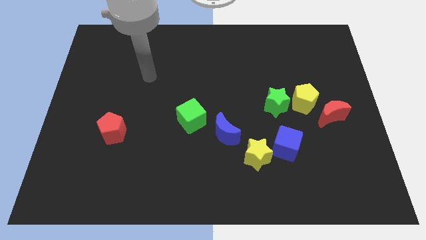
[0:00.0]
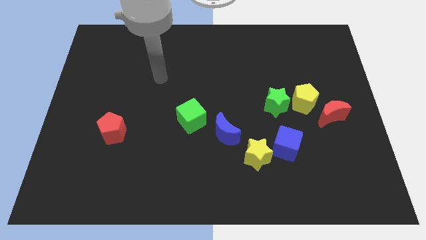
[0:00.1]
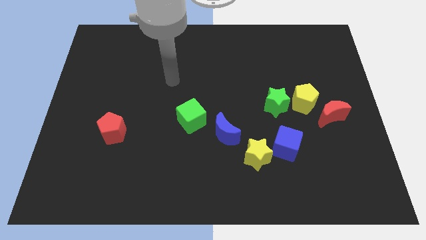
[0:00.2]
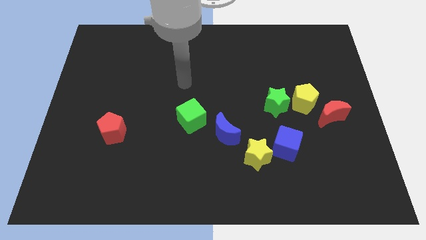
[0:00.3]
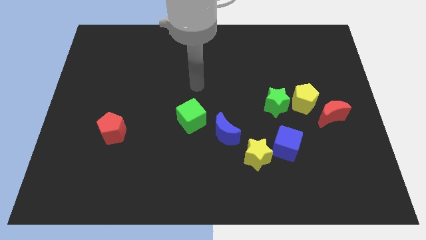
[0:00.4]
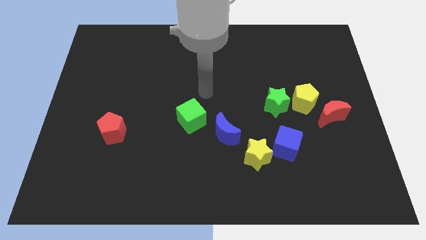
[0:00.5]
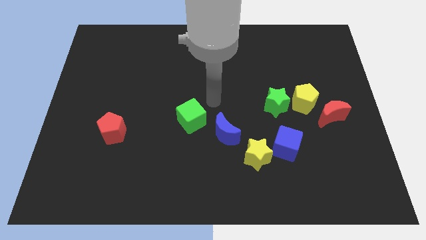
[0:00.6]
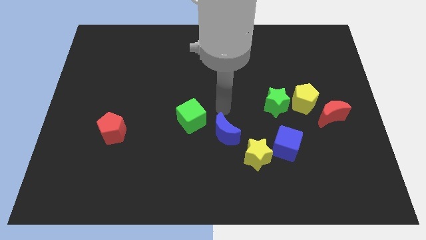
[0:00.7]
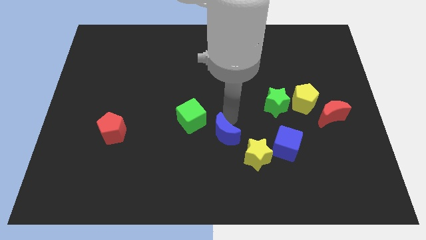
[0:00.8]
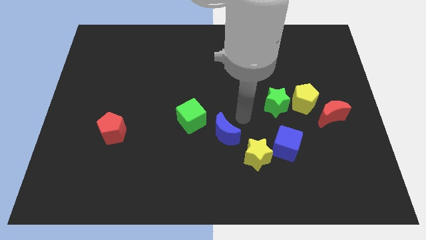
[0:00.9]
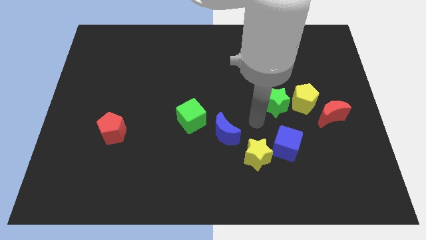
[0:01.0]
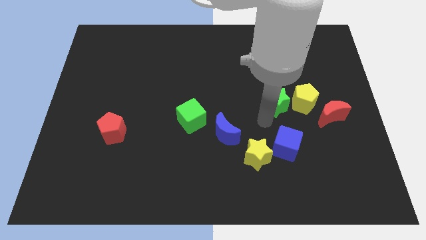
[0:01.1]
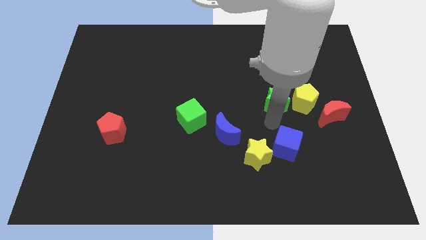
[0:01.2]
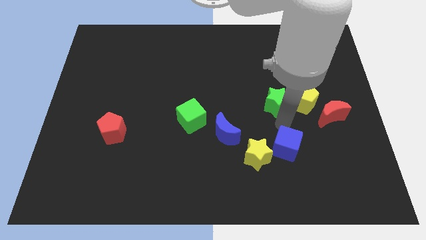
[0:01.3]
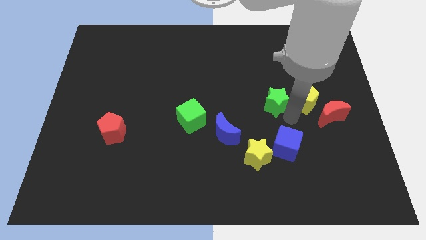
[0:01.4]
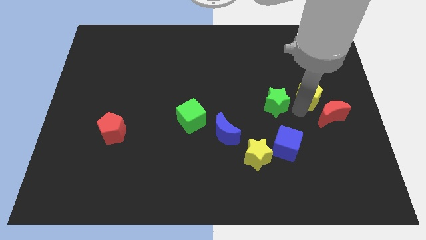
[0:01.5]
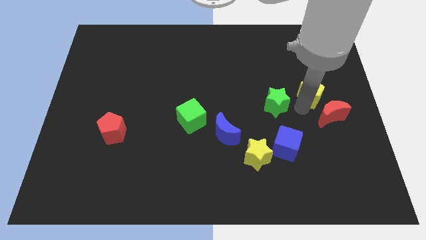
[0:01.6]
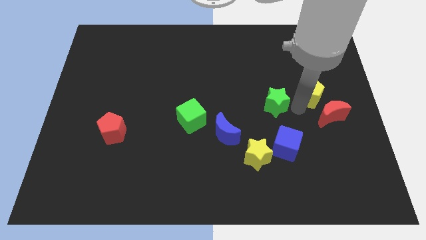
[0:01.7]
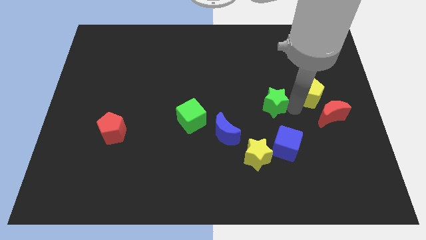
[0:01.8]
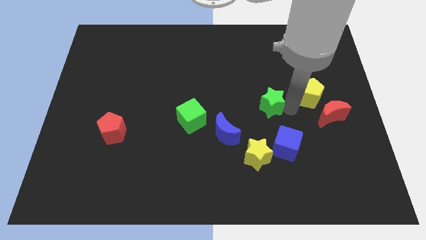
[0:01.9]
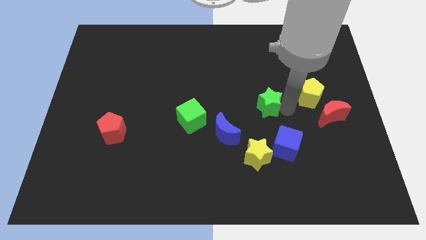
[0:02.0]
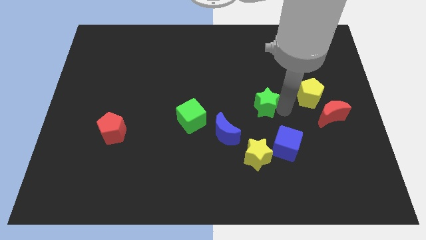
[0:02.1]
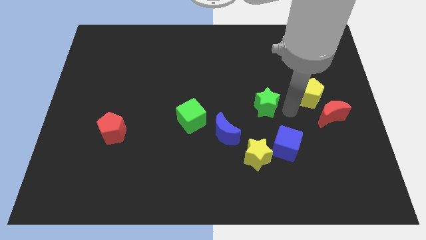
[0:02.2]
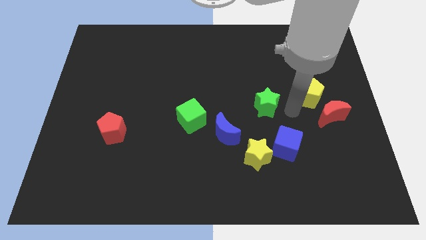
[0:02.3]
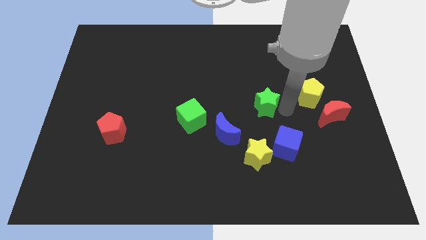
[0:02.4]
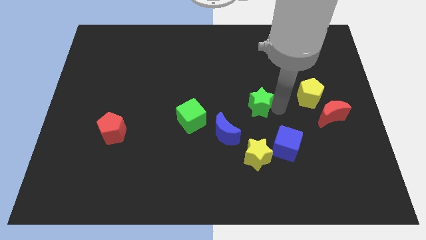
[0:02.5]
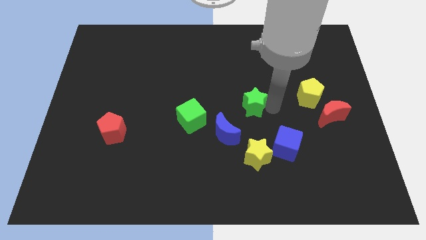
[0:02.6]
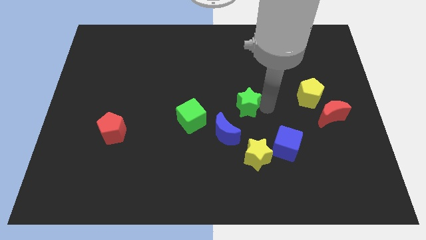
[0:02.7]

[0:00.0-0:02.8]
push the green star a little bit to the left

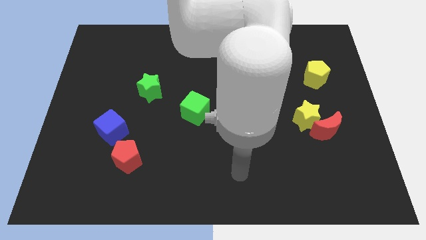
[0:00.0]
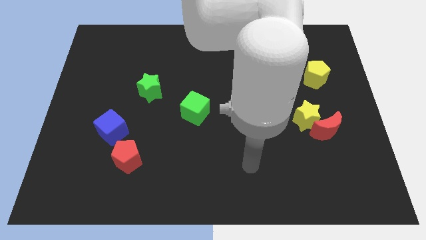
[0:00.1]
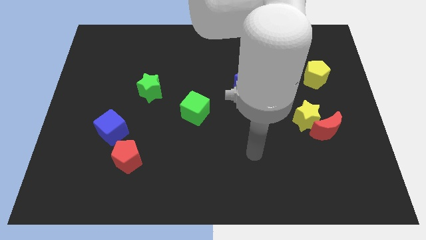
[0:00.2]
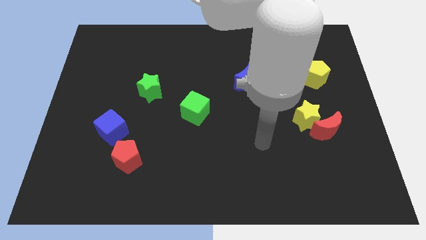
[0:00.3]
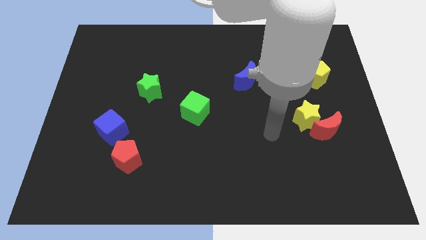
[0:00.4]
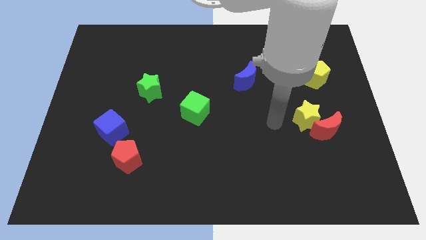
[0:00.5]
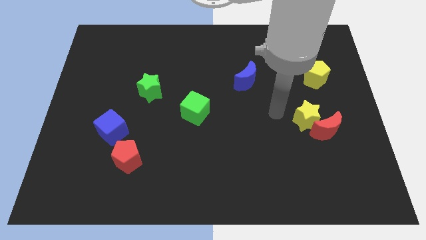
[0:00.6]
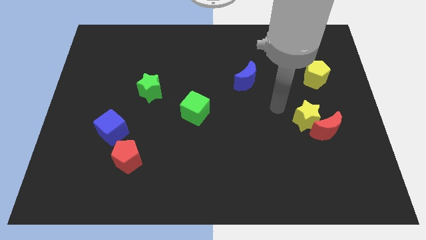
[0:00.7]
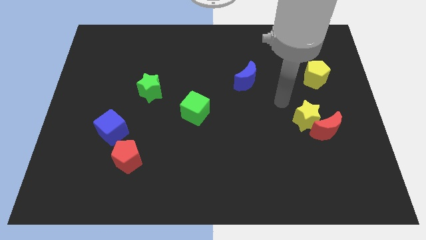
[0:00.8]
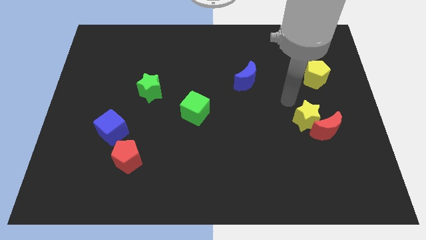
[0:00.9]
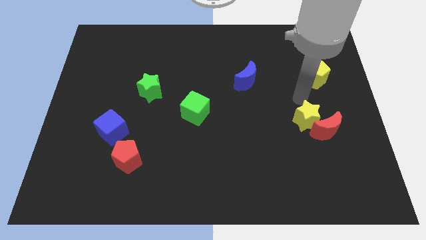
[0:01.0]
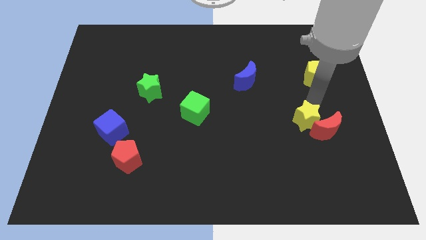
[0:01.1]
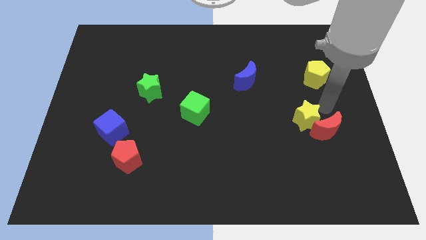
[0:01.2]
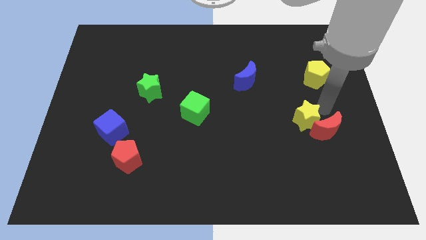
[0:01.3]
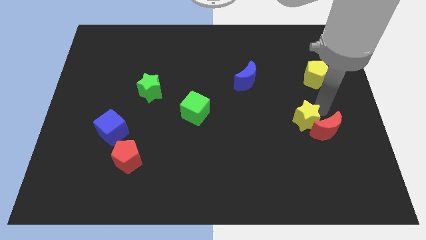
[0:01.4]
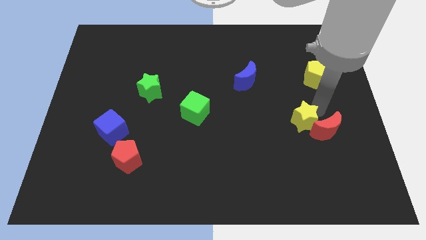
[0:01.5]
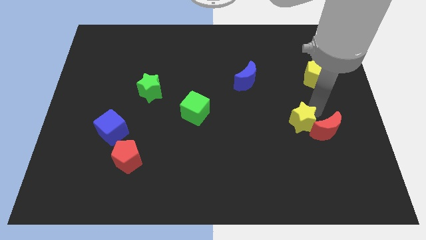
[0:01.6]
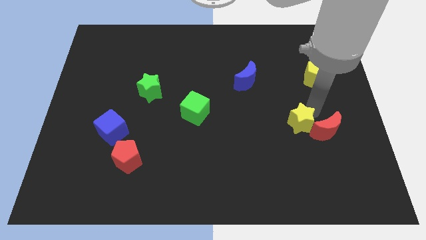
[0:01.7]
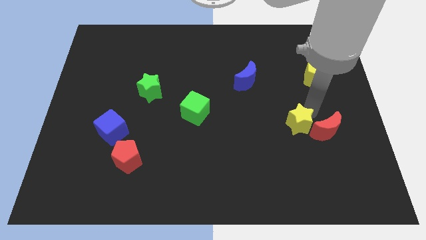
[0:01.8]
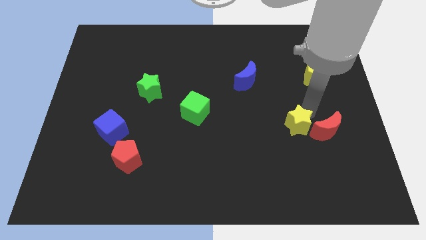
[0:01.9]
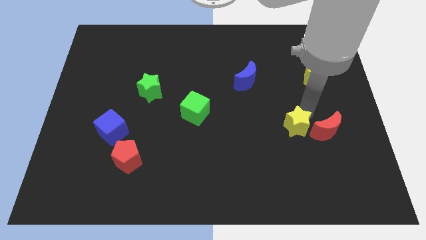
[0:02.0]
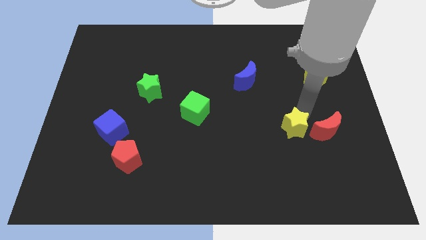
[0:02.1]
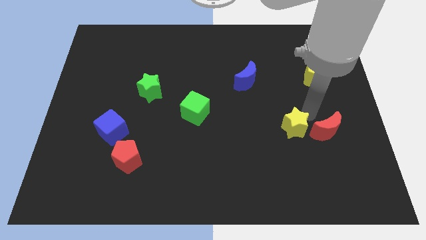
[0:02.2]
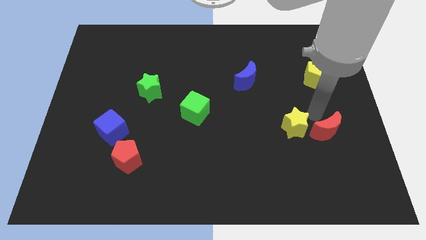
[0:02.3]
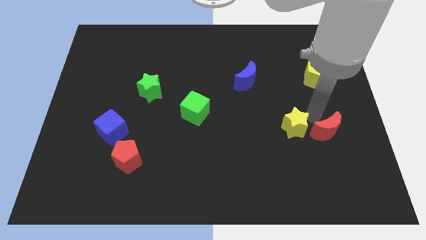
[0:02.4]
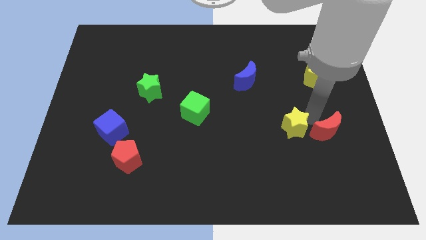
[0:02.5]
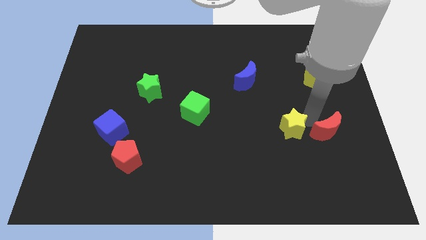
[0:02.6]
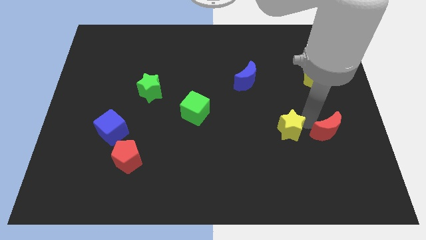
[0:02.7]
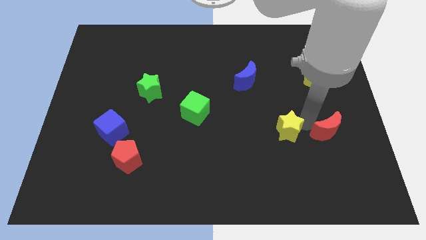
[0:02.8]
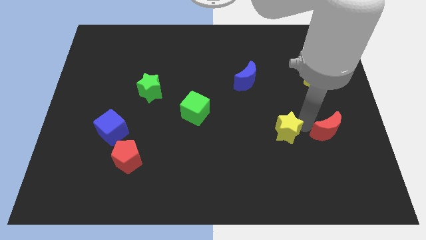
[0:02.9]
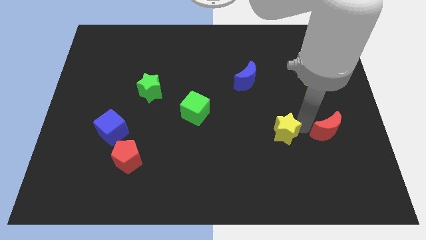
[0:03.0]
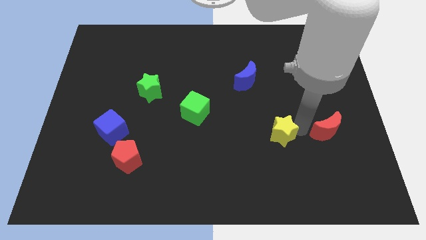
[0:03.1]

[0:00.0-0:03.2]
slightly push the yellow star downwards and left diagonally

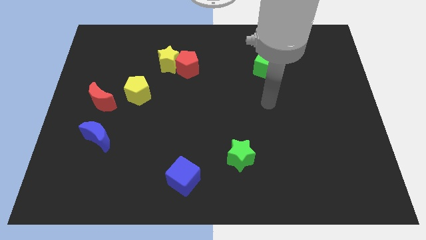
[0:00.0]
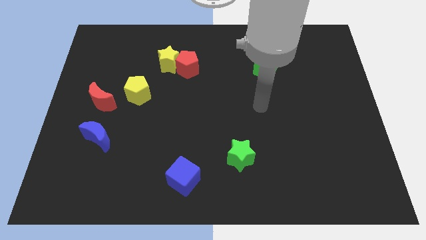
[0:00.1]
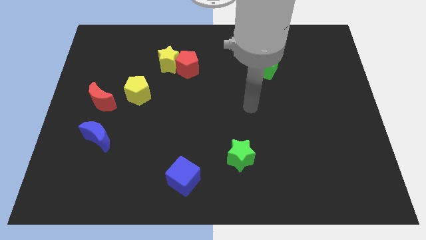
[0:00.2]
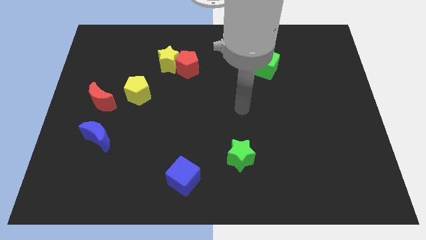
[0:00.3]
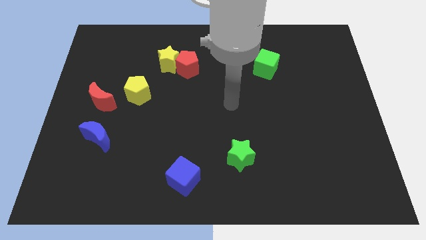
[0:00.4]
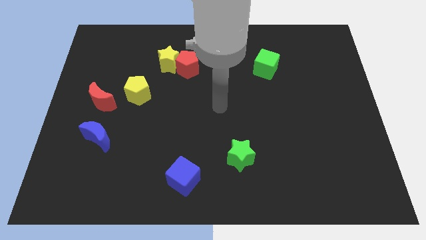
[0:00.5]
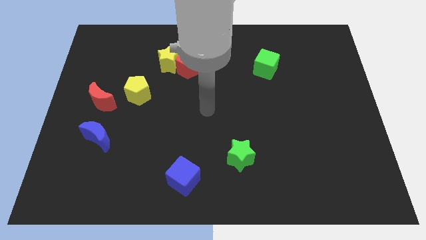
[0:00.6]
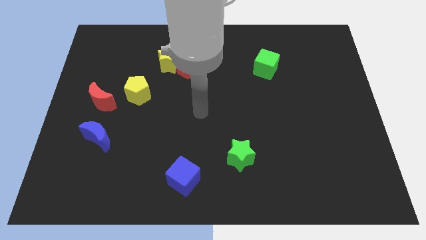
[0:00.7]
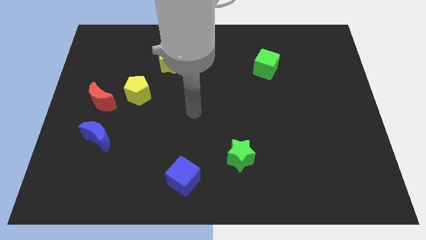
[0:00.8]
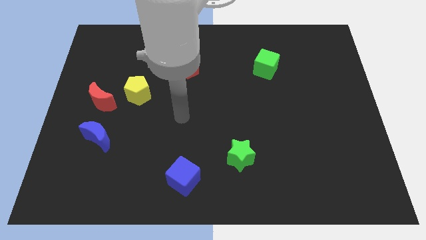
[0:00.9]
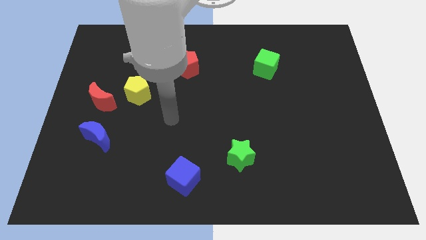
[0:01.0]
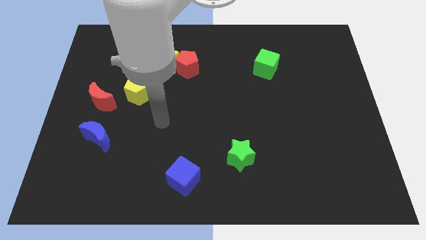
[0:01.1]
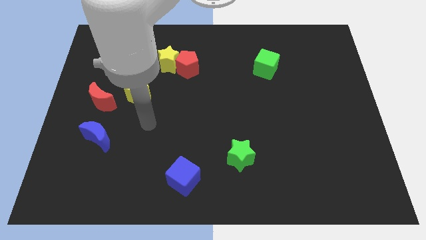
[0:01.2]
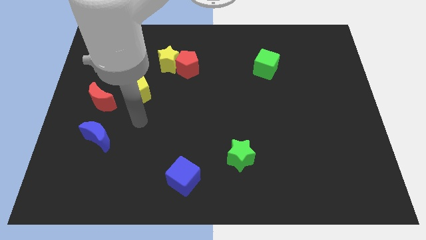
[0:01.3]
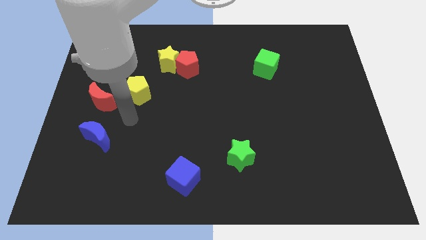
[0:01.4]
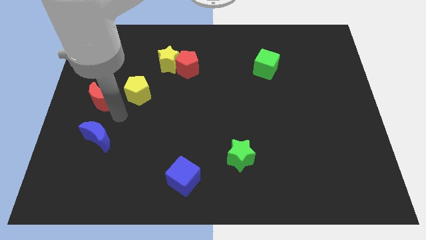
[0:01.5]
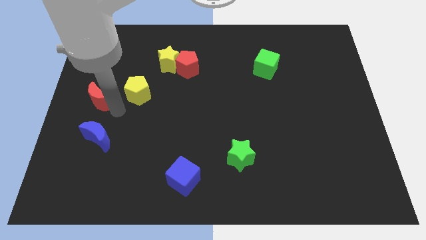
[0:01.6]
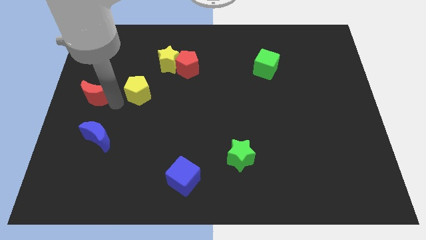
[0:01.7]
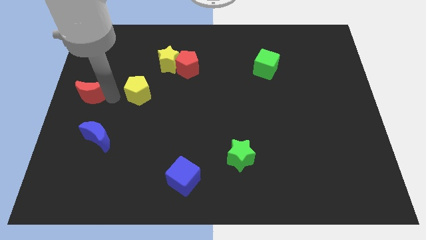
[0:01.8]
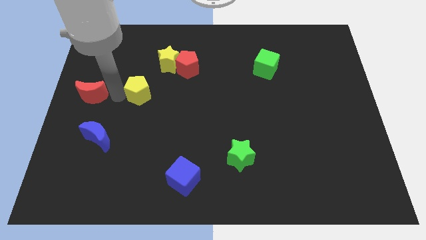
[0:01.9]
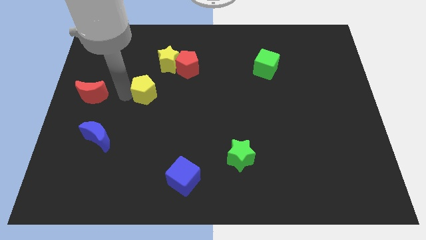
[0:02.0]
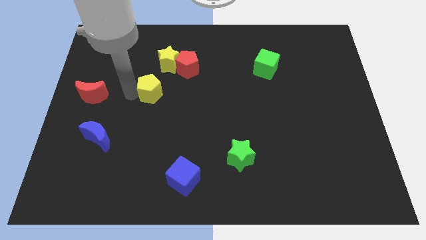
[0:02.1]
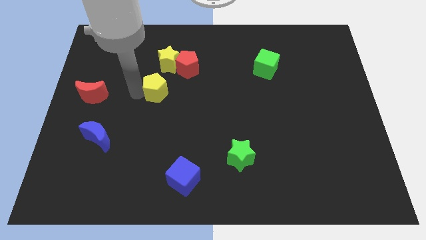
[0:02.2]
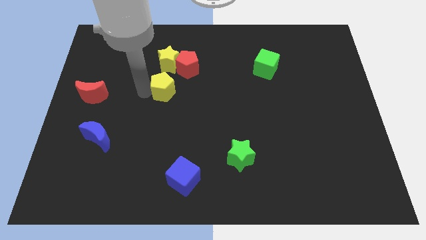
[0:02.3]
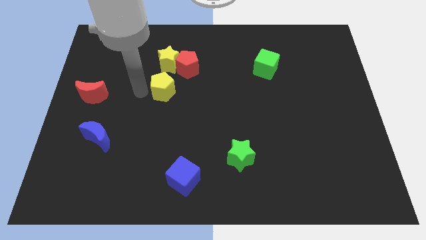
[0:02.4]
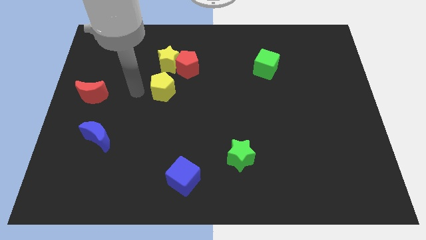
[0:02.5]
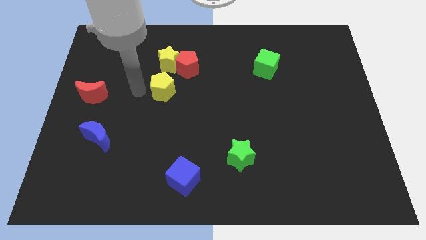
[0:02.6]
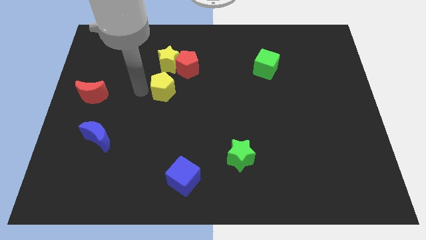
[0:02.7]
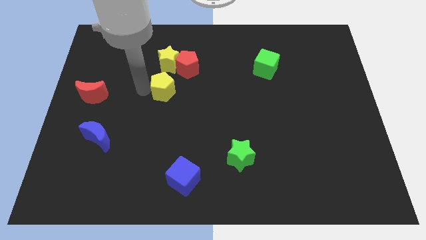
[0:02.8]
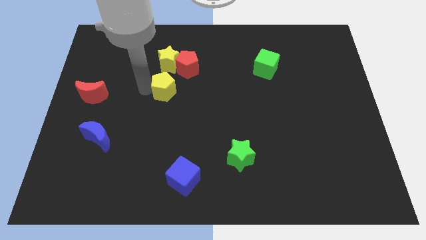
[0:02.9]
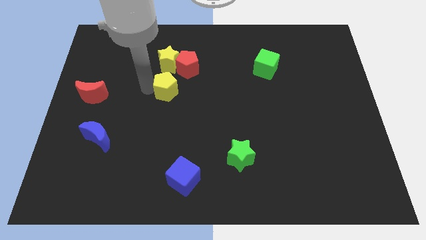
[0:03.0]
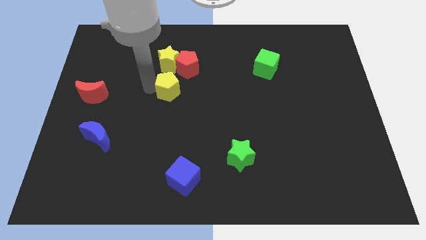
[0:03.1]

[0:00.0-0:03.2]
move the yellow pentagon right somewhat
